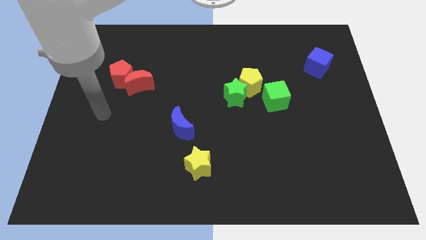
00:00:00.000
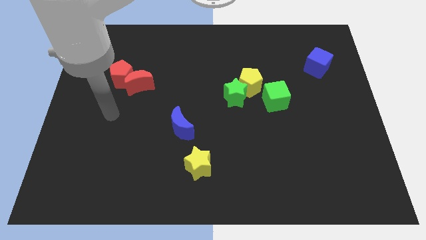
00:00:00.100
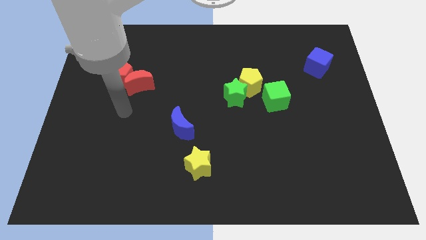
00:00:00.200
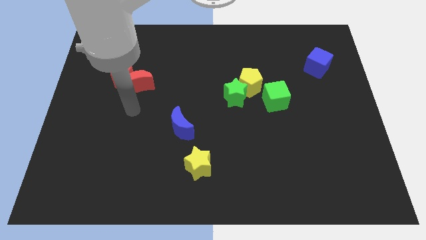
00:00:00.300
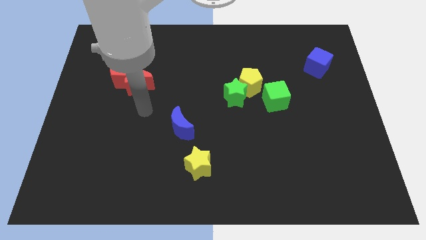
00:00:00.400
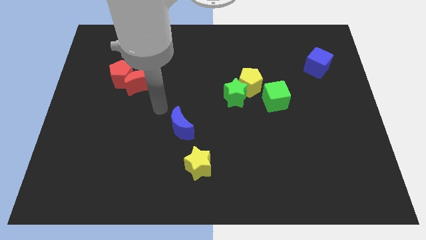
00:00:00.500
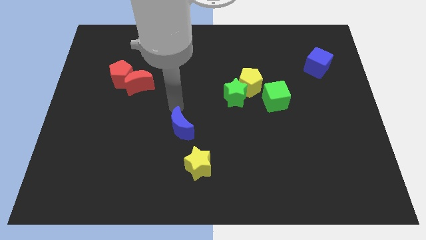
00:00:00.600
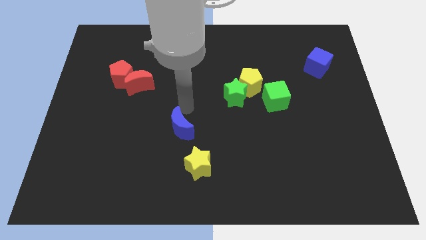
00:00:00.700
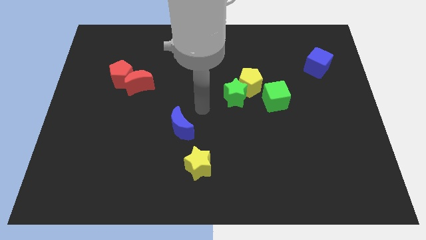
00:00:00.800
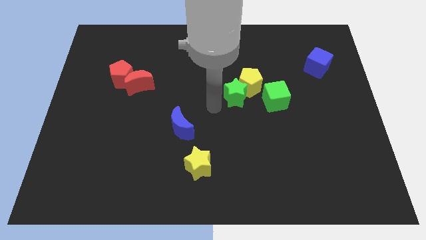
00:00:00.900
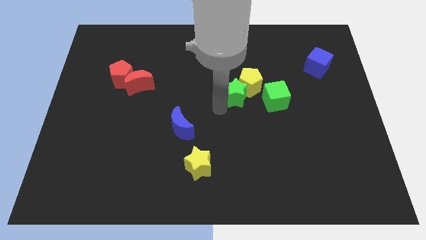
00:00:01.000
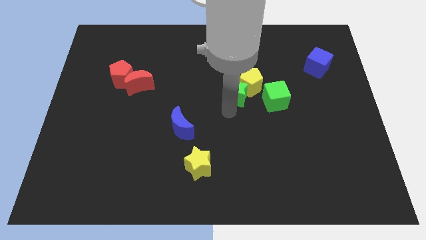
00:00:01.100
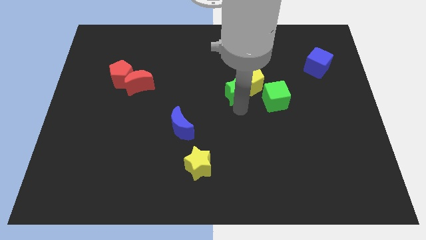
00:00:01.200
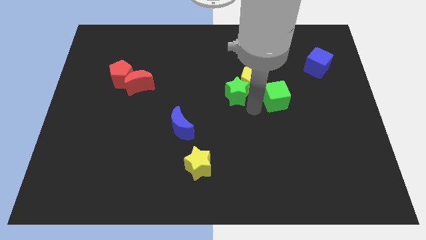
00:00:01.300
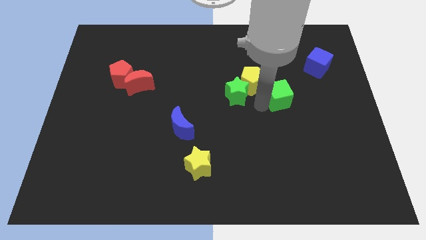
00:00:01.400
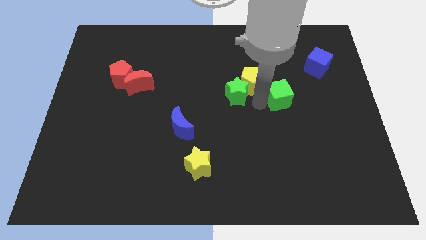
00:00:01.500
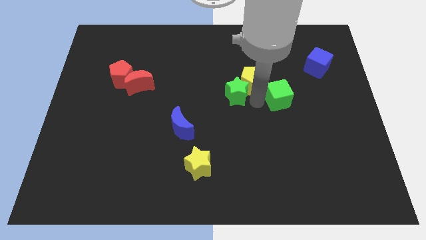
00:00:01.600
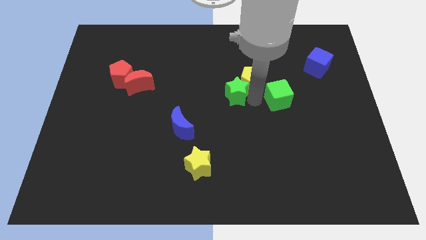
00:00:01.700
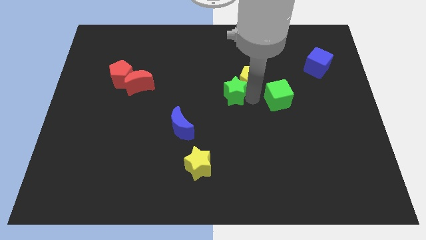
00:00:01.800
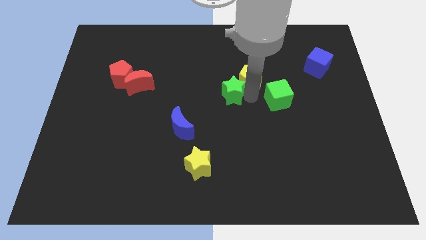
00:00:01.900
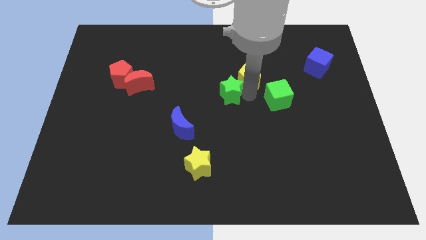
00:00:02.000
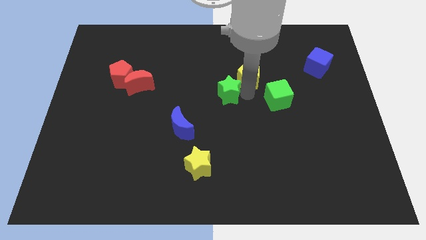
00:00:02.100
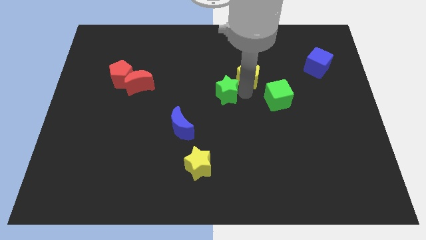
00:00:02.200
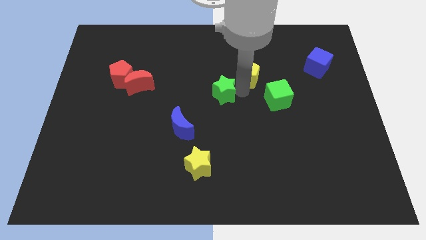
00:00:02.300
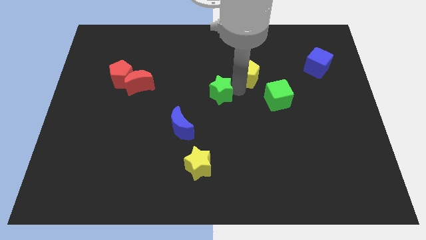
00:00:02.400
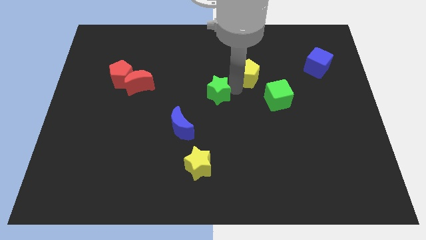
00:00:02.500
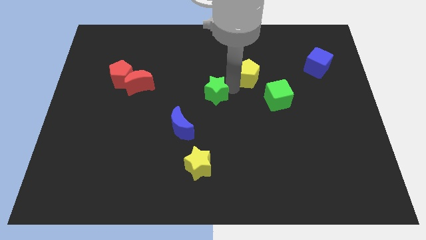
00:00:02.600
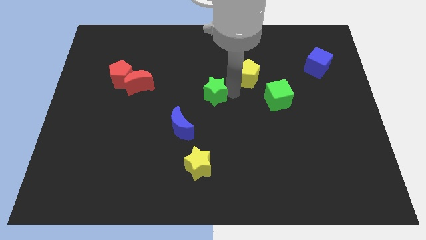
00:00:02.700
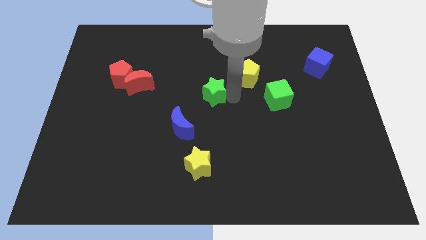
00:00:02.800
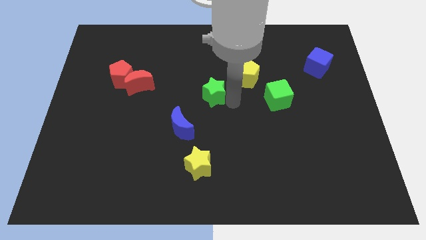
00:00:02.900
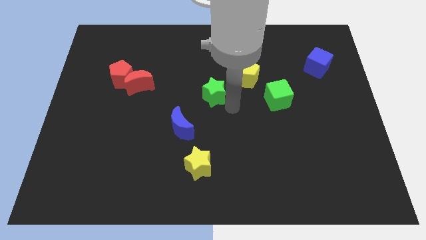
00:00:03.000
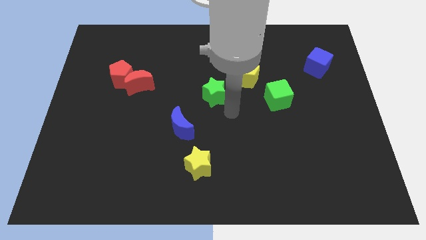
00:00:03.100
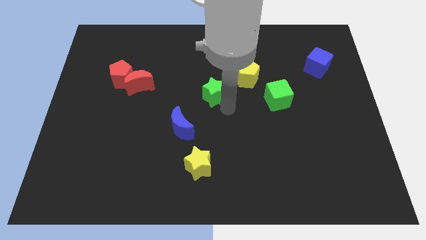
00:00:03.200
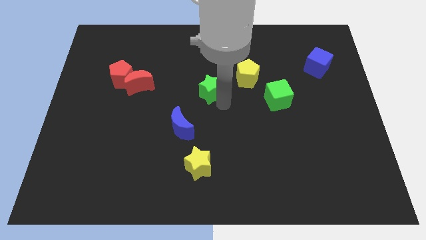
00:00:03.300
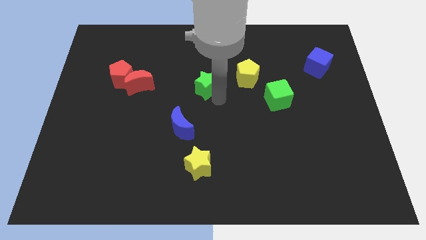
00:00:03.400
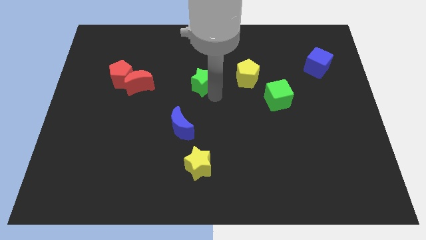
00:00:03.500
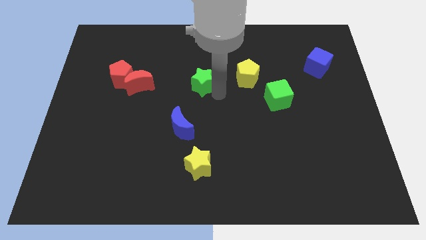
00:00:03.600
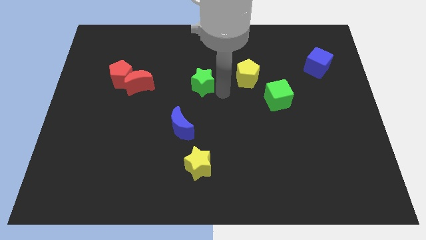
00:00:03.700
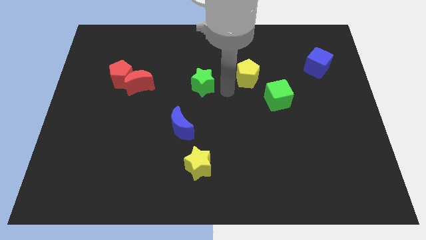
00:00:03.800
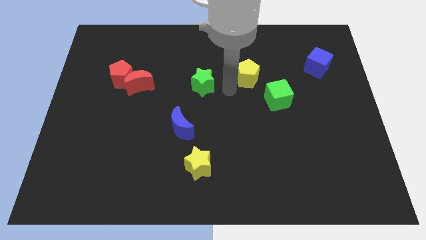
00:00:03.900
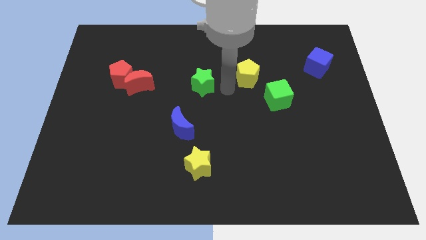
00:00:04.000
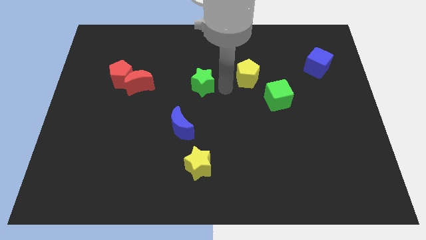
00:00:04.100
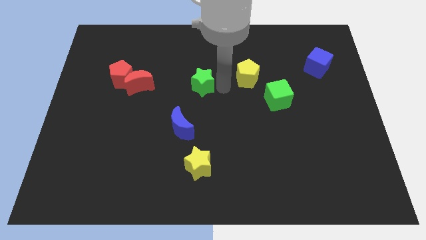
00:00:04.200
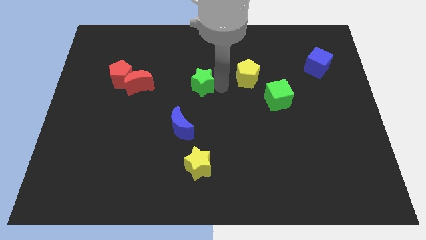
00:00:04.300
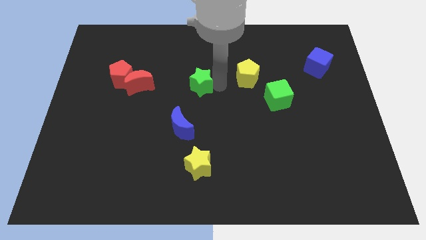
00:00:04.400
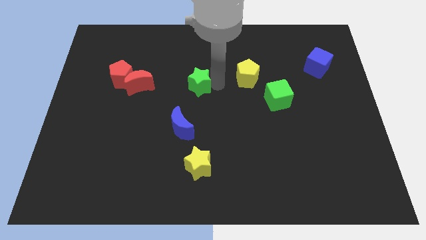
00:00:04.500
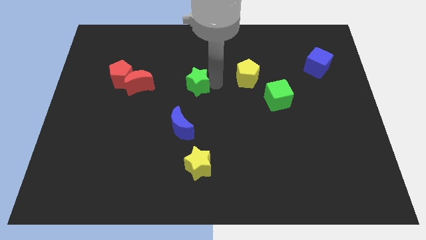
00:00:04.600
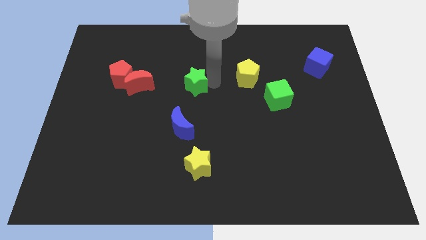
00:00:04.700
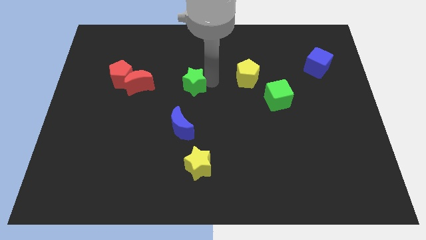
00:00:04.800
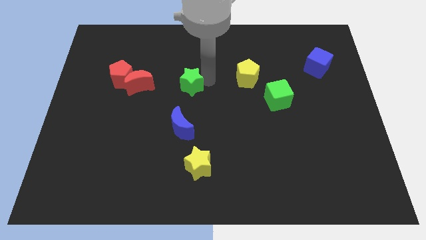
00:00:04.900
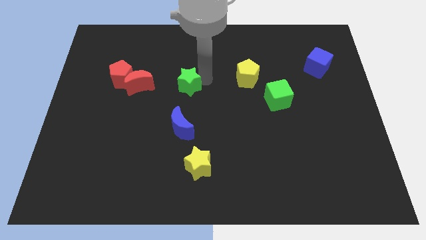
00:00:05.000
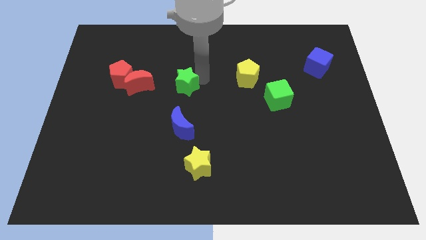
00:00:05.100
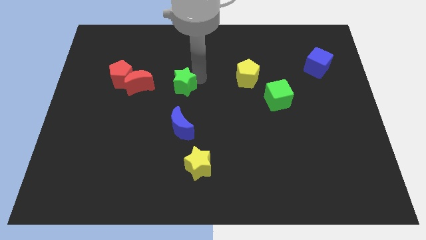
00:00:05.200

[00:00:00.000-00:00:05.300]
push the green star just right of the red pentagon

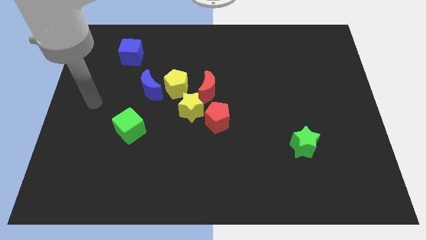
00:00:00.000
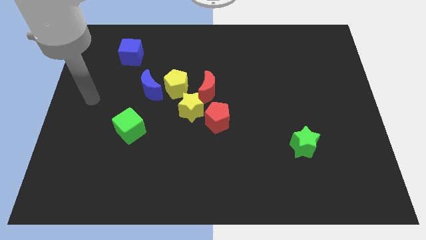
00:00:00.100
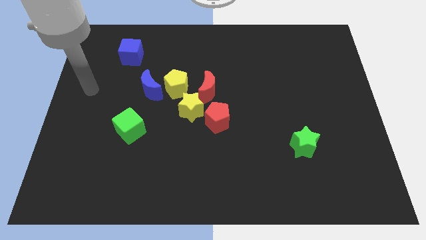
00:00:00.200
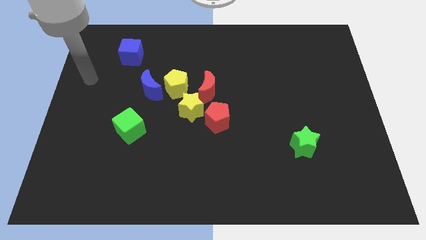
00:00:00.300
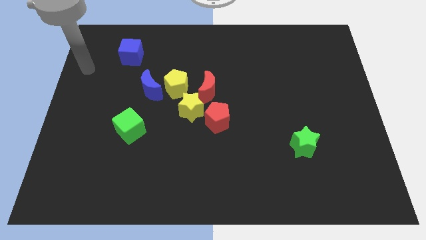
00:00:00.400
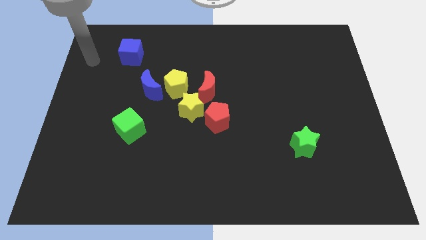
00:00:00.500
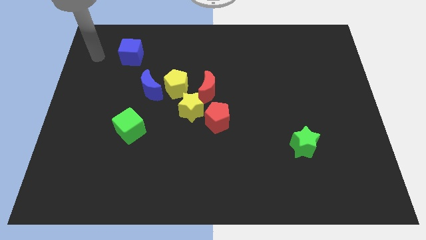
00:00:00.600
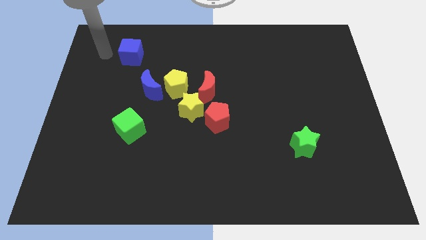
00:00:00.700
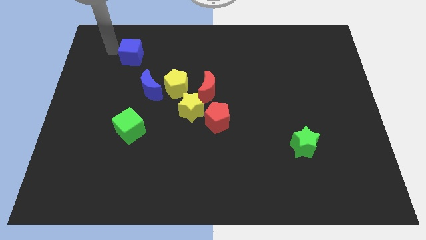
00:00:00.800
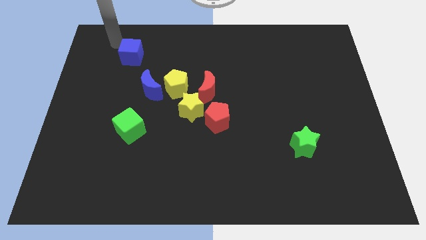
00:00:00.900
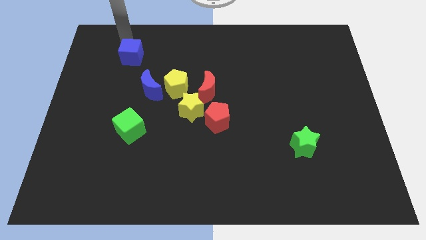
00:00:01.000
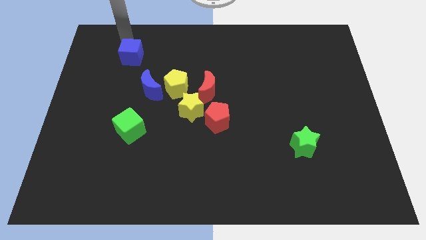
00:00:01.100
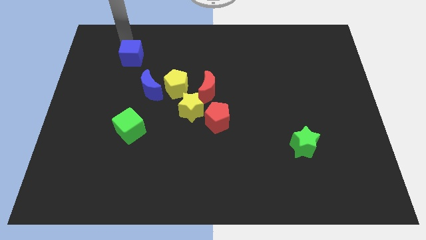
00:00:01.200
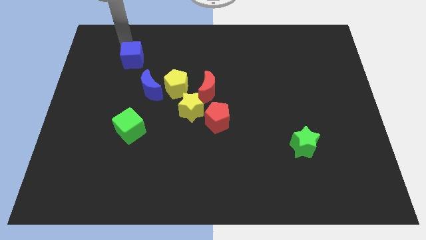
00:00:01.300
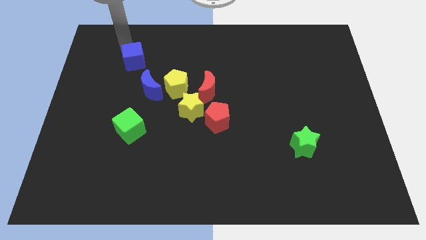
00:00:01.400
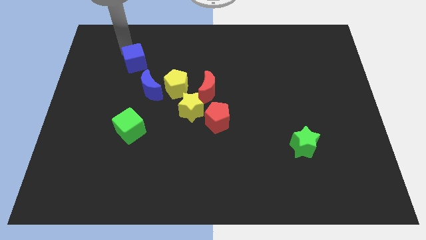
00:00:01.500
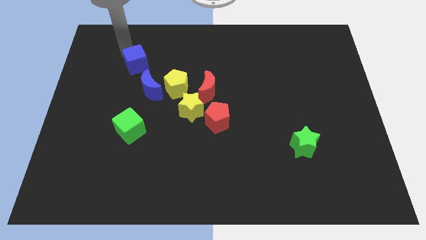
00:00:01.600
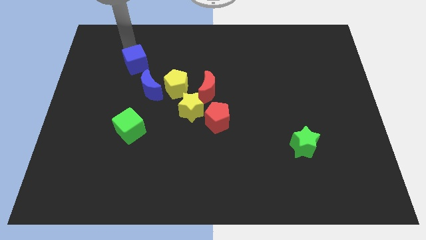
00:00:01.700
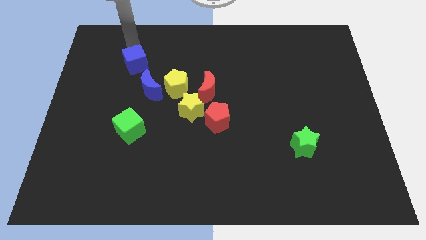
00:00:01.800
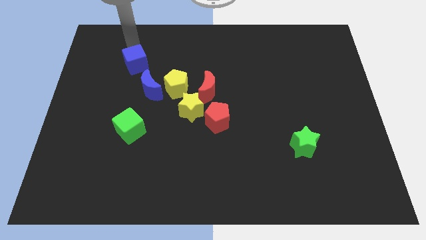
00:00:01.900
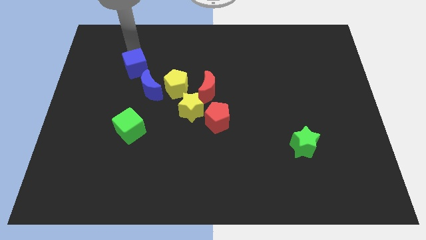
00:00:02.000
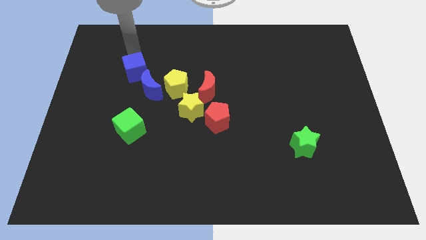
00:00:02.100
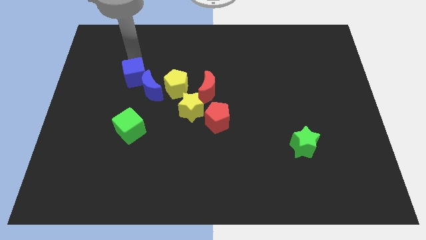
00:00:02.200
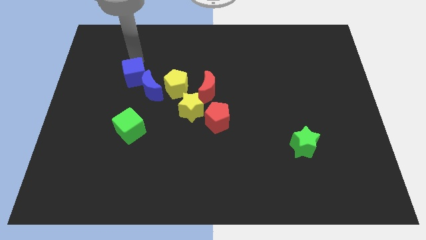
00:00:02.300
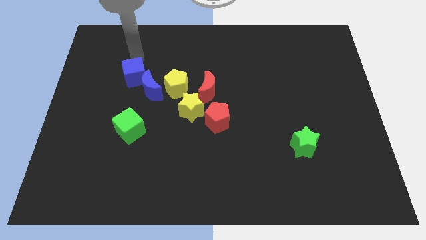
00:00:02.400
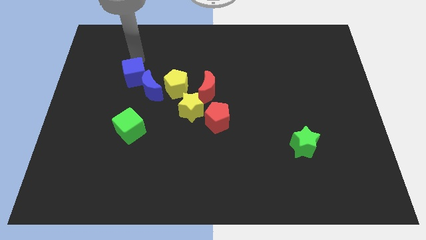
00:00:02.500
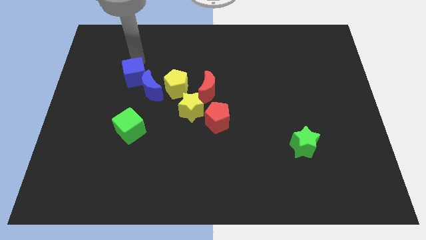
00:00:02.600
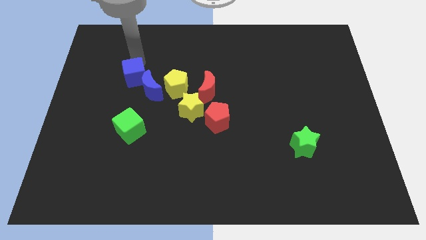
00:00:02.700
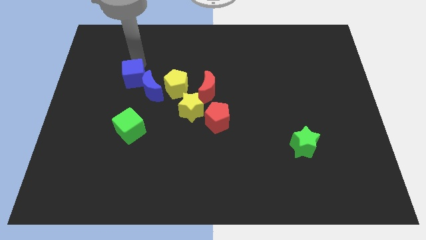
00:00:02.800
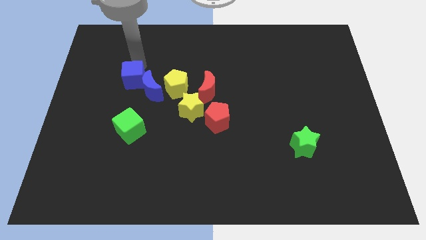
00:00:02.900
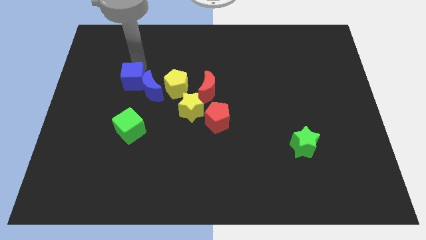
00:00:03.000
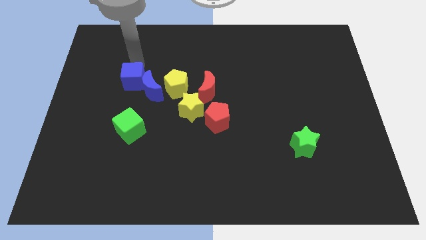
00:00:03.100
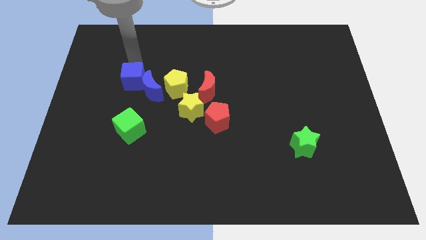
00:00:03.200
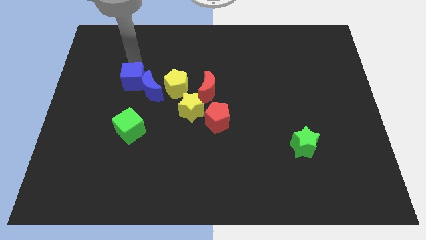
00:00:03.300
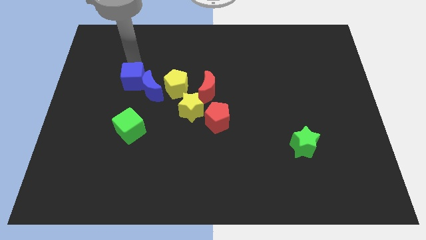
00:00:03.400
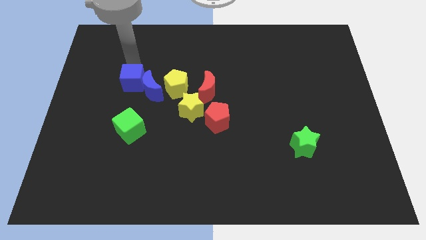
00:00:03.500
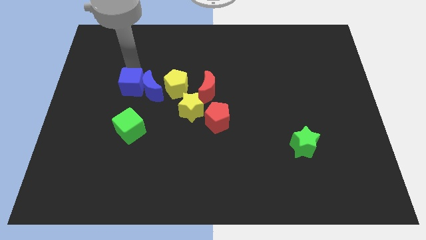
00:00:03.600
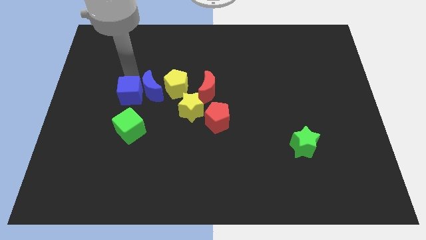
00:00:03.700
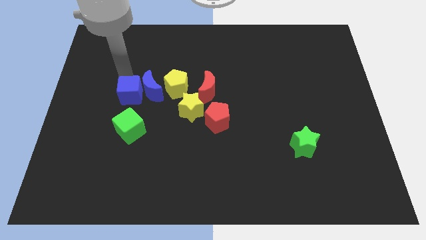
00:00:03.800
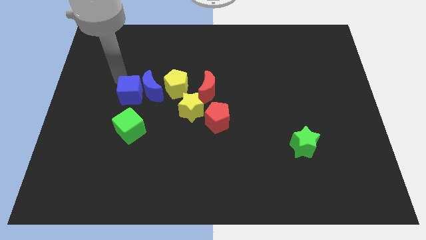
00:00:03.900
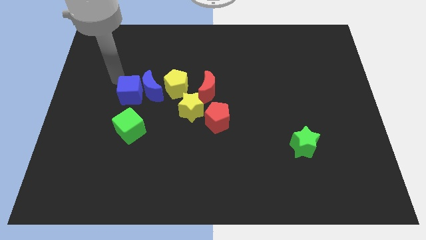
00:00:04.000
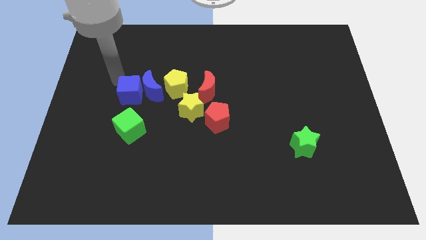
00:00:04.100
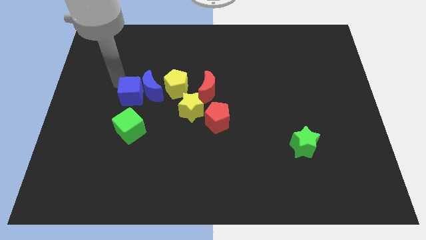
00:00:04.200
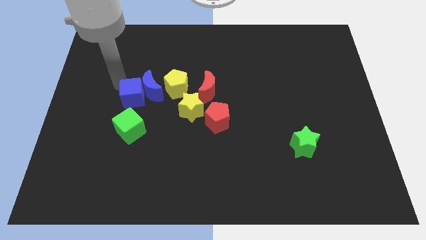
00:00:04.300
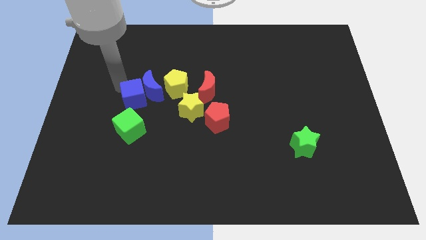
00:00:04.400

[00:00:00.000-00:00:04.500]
push the blue cube to the left side of the yellow star
